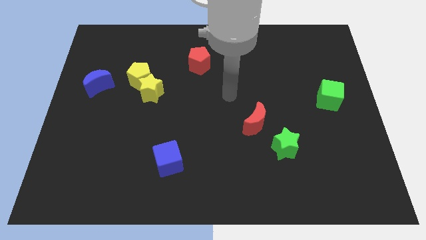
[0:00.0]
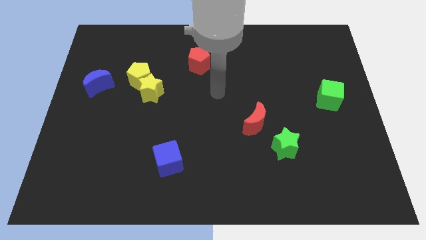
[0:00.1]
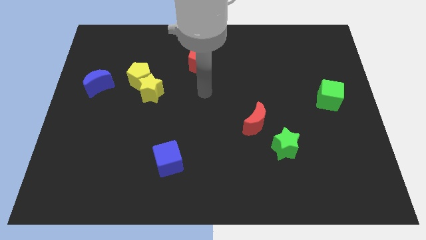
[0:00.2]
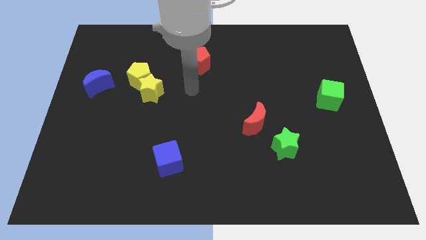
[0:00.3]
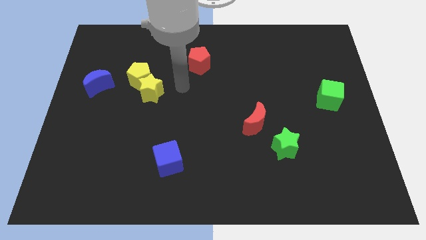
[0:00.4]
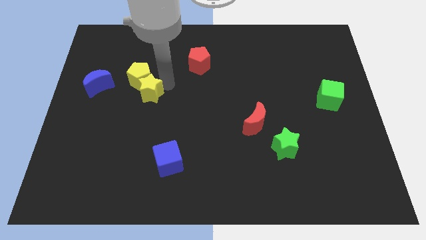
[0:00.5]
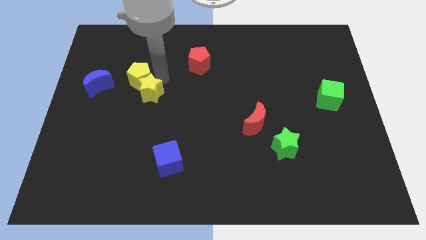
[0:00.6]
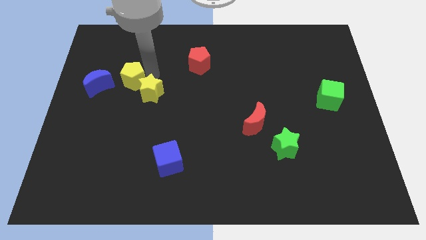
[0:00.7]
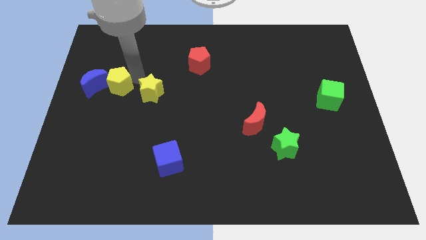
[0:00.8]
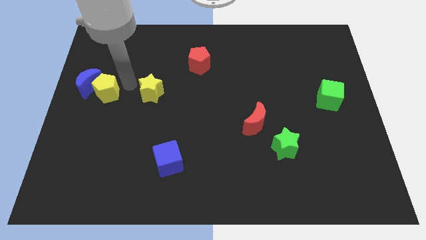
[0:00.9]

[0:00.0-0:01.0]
separate the yellow star from the yellow pentagon

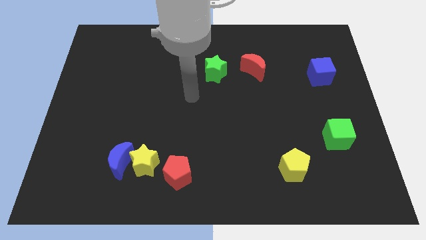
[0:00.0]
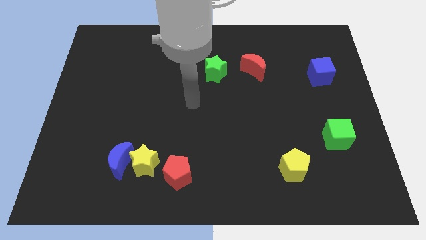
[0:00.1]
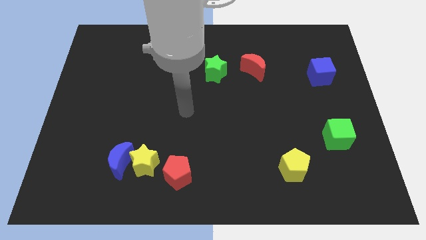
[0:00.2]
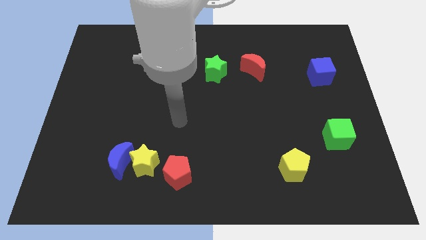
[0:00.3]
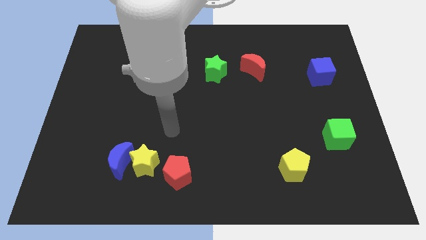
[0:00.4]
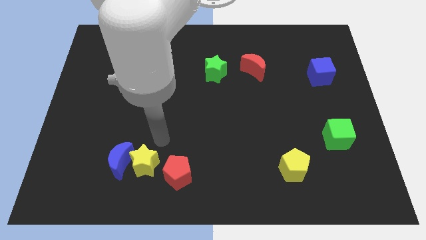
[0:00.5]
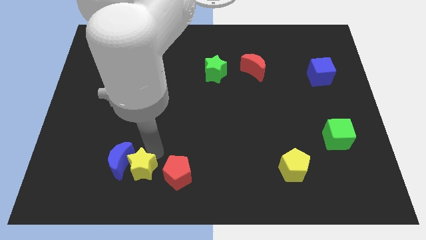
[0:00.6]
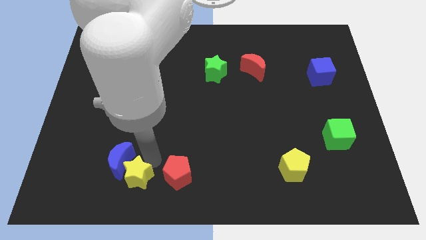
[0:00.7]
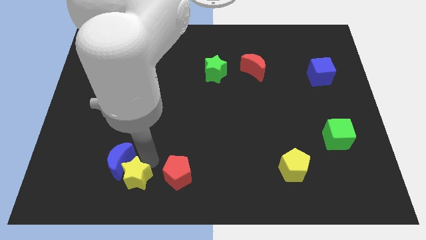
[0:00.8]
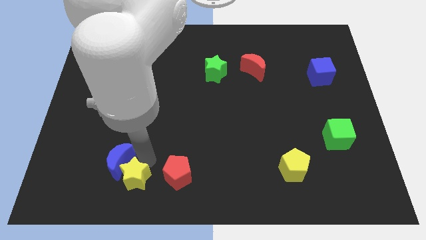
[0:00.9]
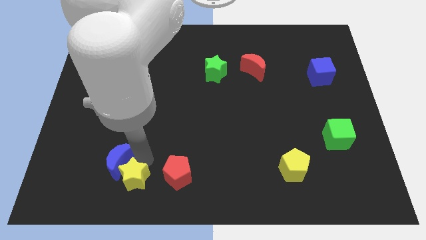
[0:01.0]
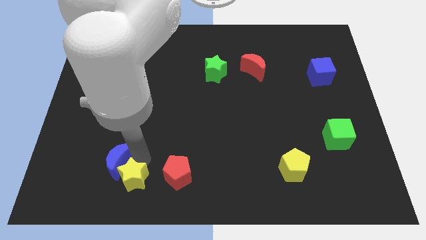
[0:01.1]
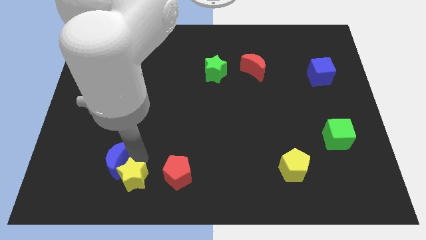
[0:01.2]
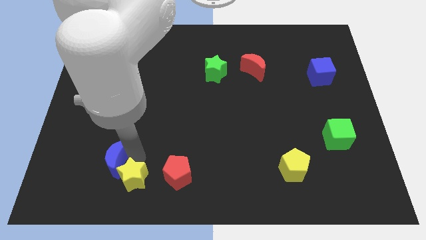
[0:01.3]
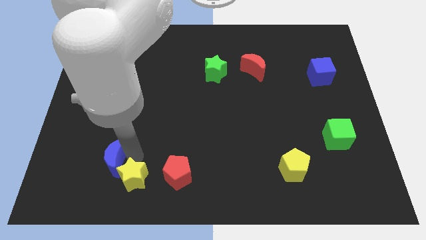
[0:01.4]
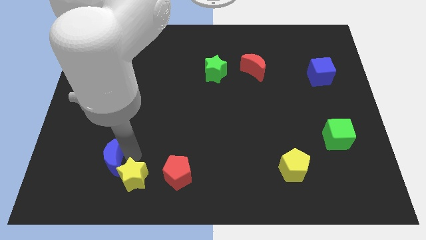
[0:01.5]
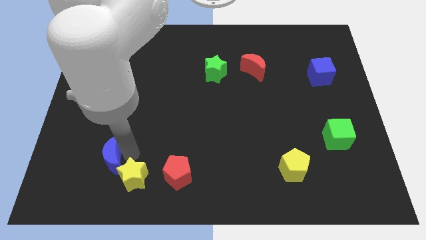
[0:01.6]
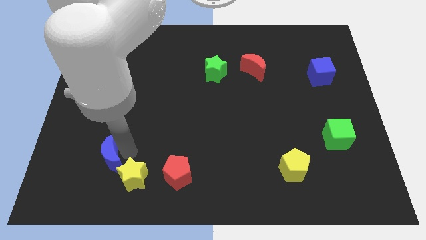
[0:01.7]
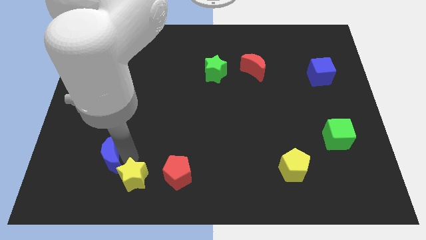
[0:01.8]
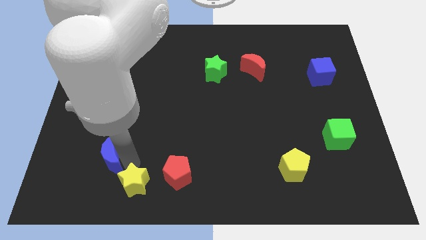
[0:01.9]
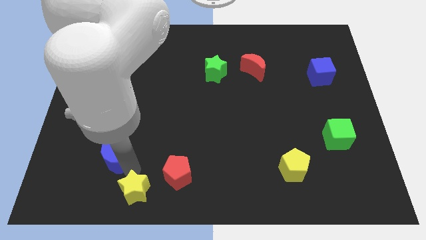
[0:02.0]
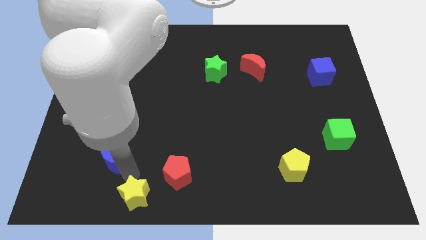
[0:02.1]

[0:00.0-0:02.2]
move the blue moon away from the yellow star

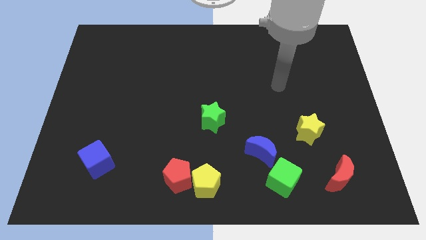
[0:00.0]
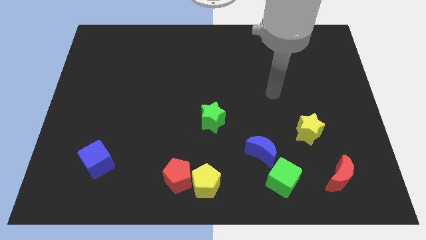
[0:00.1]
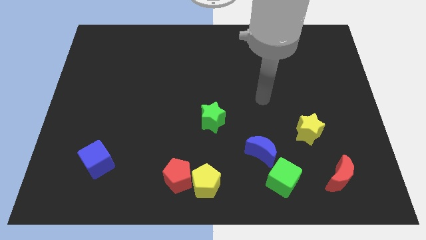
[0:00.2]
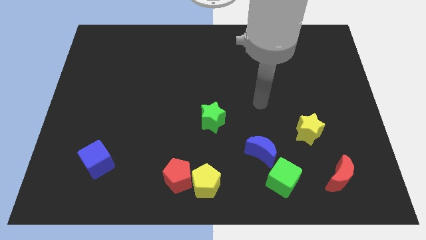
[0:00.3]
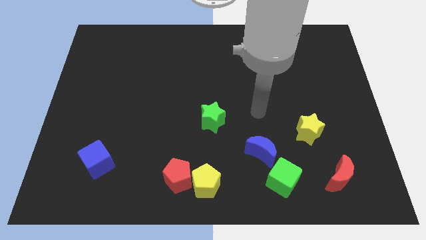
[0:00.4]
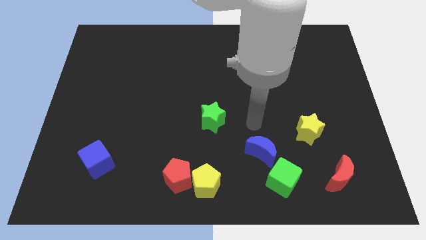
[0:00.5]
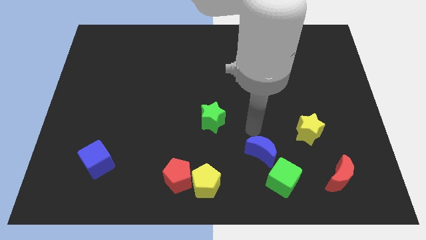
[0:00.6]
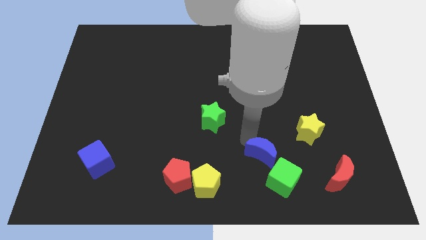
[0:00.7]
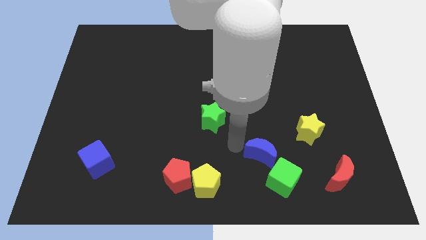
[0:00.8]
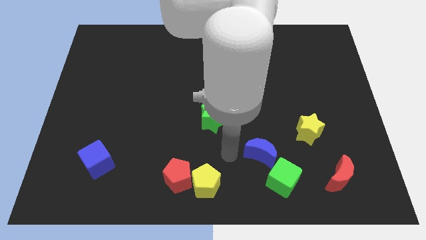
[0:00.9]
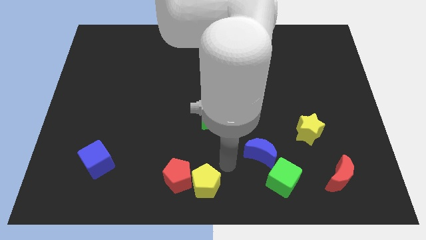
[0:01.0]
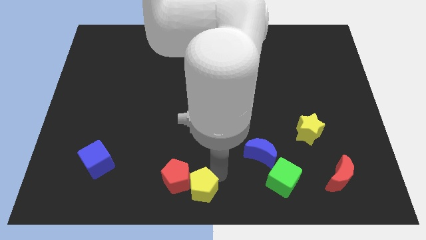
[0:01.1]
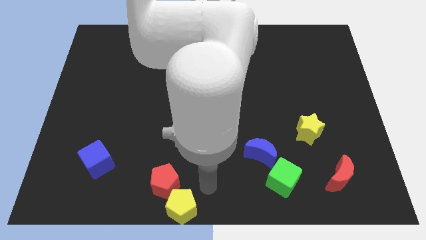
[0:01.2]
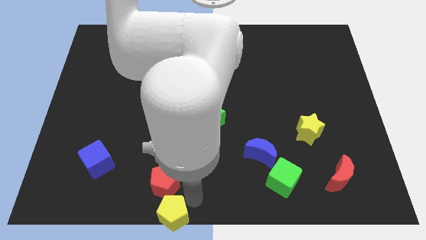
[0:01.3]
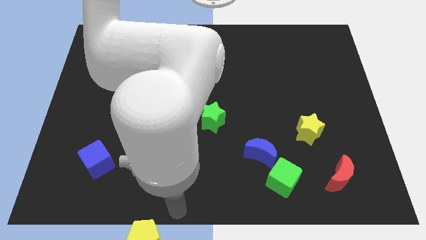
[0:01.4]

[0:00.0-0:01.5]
pull the red pentagon apart from the yellow pentagon

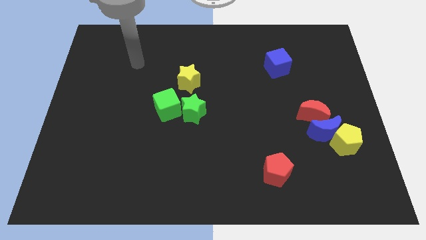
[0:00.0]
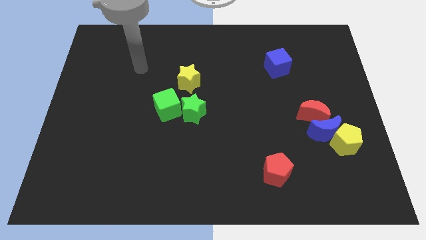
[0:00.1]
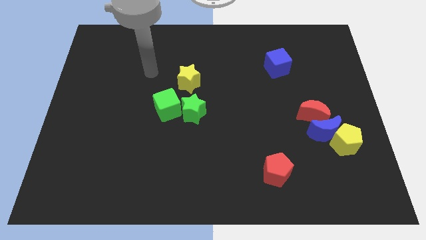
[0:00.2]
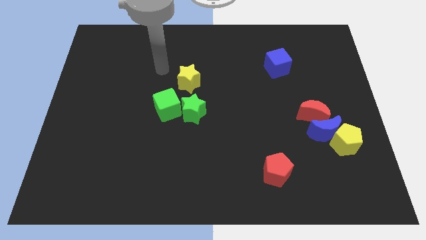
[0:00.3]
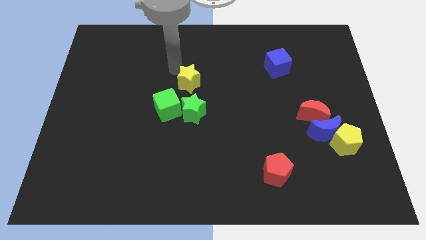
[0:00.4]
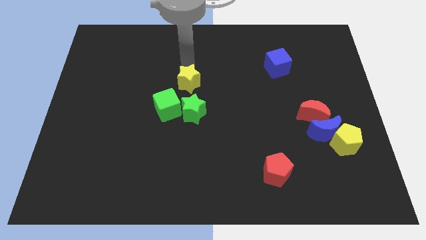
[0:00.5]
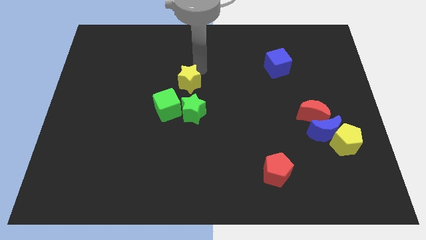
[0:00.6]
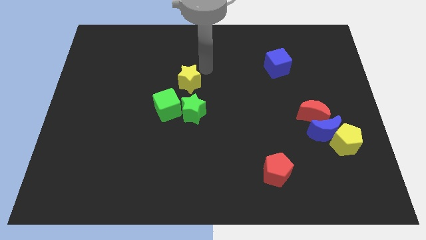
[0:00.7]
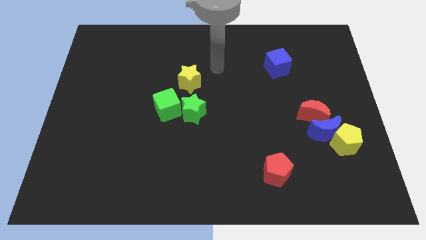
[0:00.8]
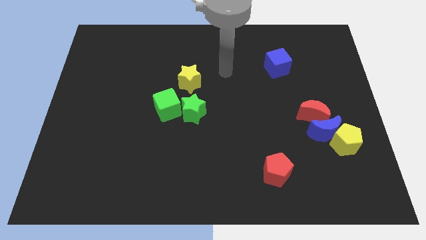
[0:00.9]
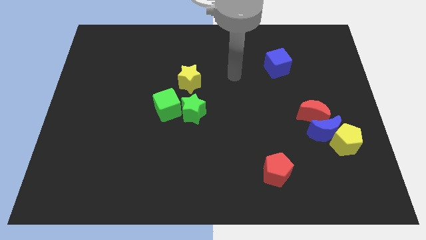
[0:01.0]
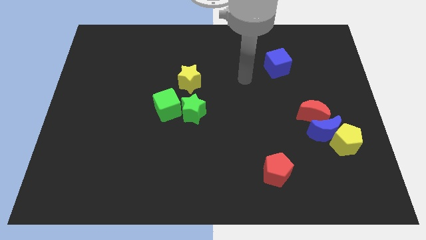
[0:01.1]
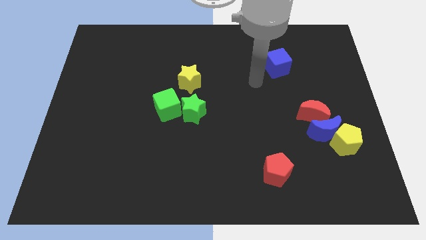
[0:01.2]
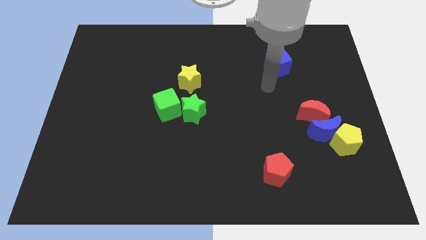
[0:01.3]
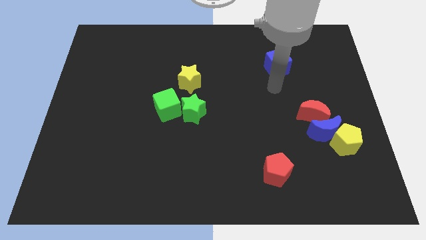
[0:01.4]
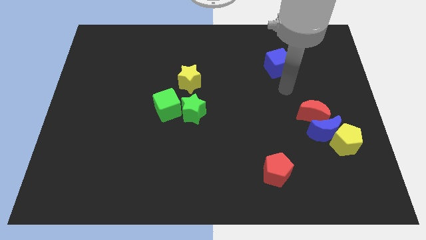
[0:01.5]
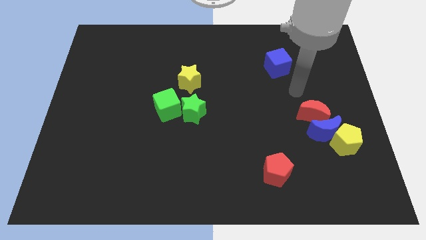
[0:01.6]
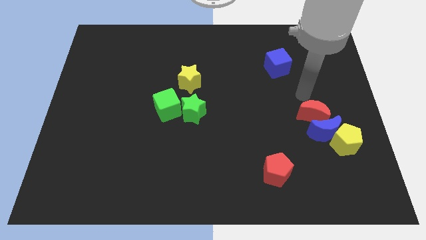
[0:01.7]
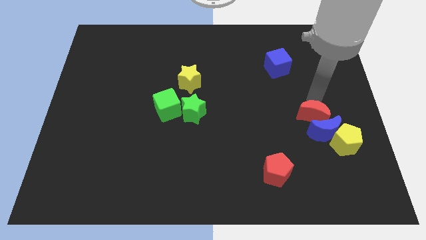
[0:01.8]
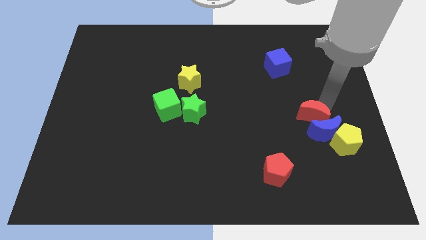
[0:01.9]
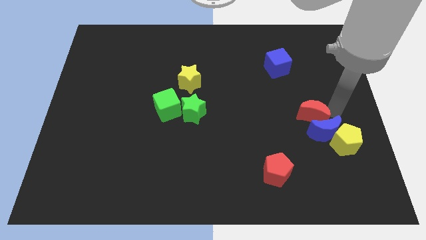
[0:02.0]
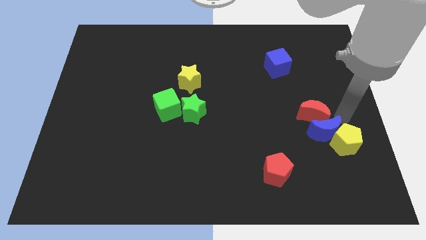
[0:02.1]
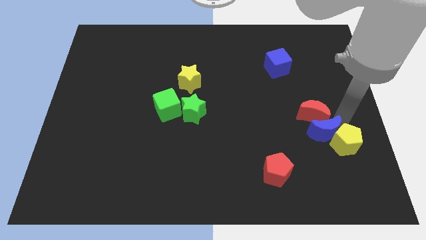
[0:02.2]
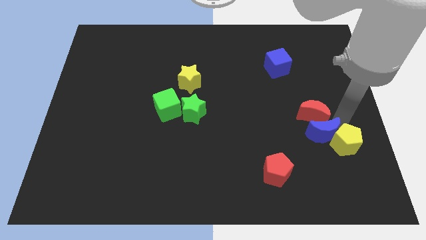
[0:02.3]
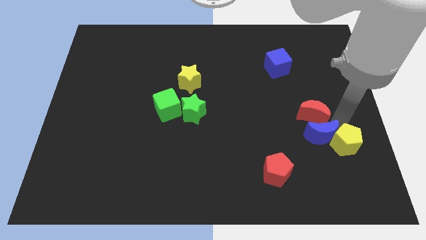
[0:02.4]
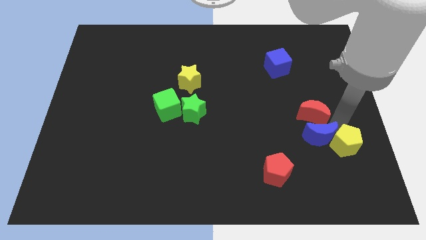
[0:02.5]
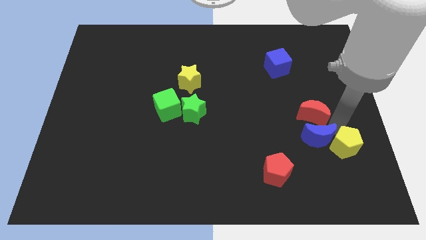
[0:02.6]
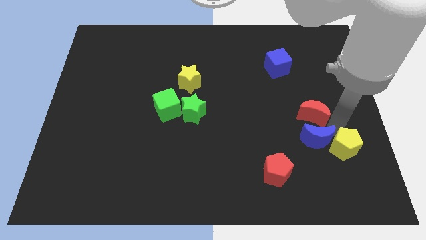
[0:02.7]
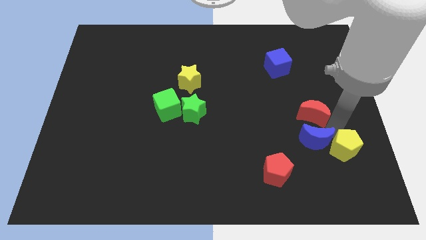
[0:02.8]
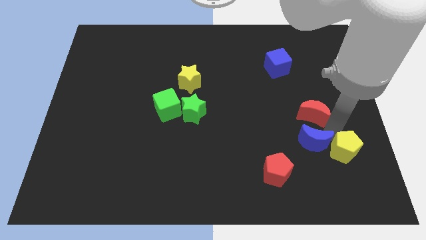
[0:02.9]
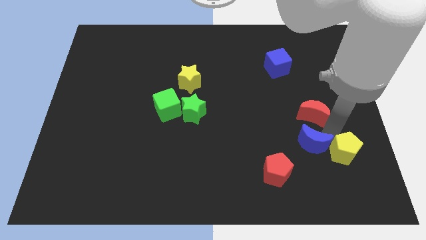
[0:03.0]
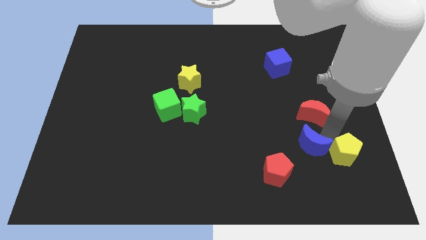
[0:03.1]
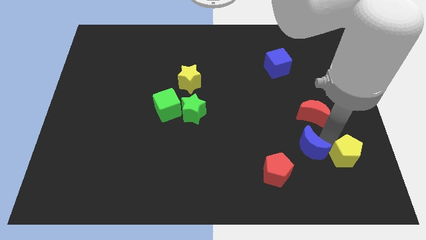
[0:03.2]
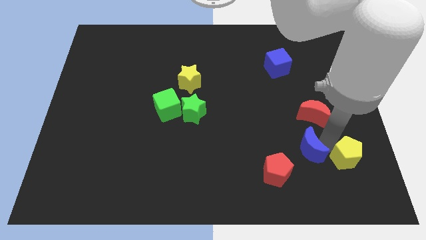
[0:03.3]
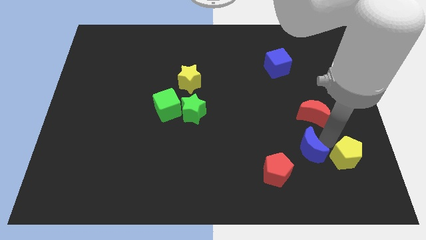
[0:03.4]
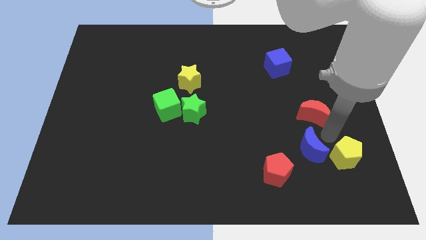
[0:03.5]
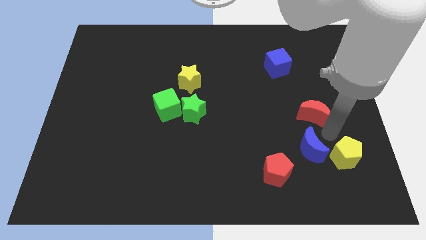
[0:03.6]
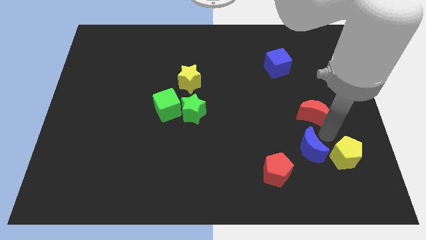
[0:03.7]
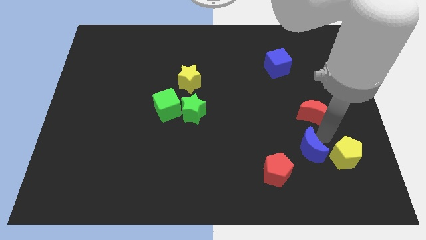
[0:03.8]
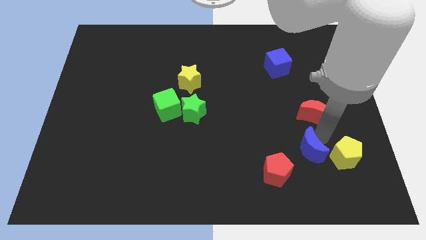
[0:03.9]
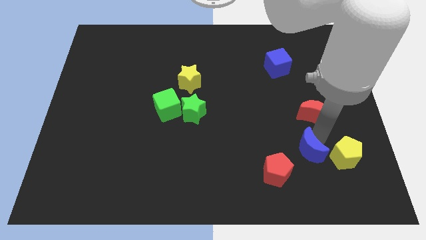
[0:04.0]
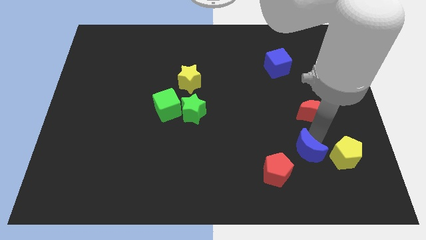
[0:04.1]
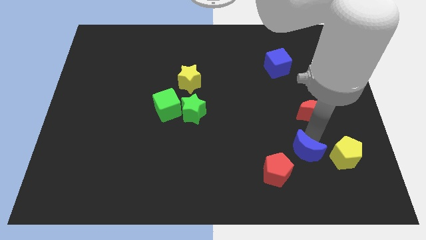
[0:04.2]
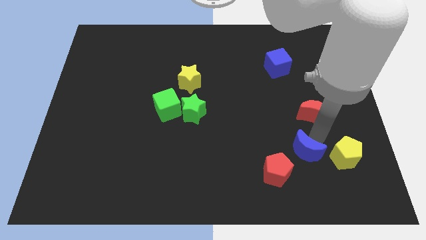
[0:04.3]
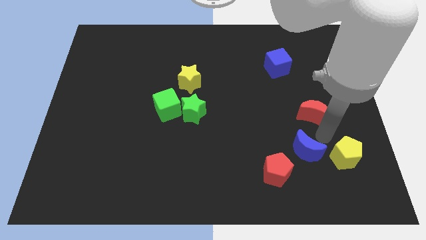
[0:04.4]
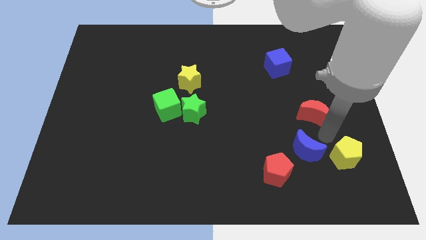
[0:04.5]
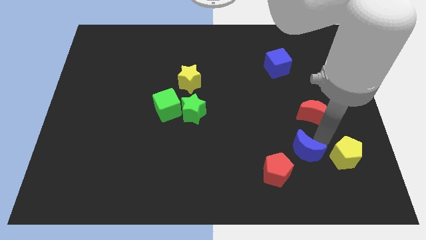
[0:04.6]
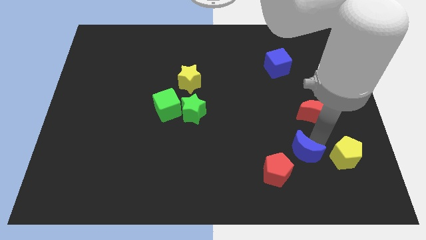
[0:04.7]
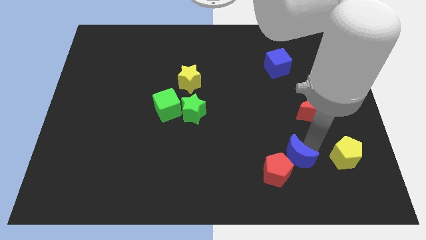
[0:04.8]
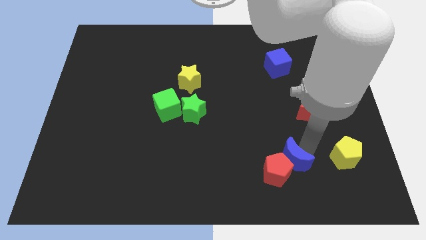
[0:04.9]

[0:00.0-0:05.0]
pull the blue moon apart from the yellow pentagon and red moon
